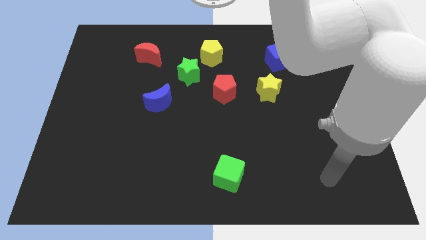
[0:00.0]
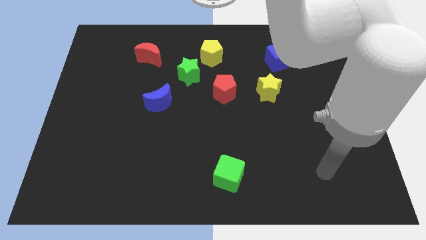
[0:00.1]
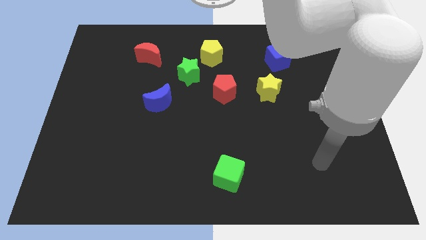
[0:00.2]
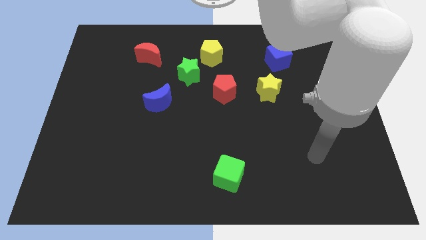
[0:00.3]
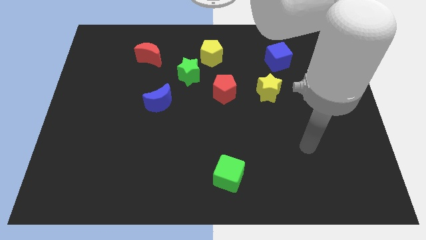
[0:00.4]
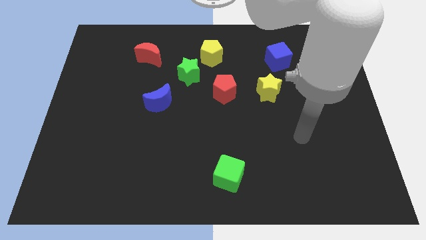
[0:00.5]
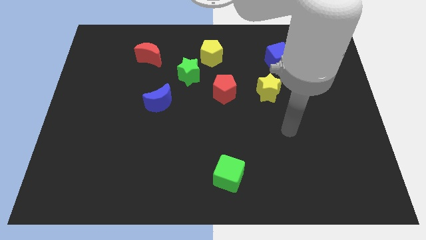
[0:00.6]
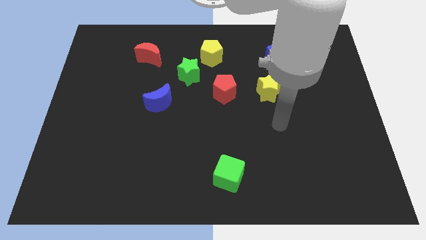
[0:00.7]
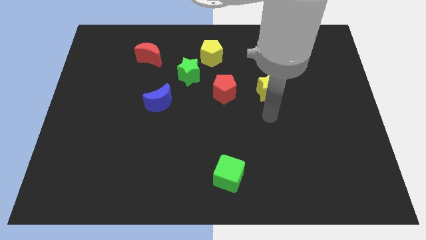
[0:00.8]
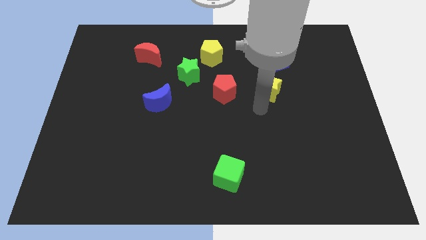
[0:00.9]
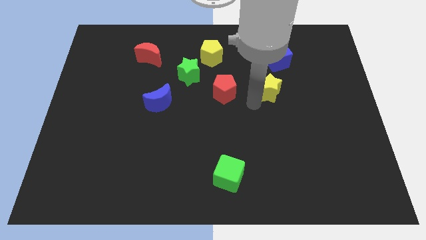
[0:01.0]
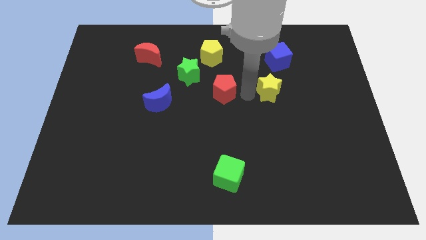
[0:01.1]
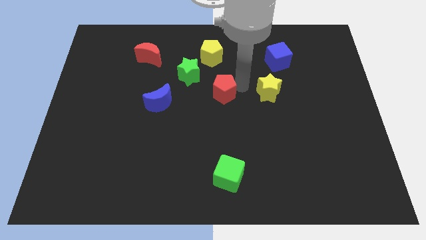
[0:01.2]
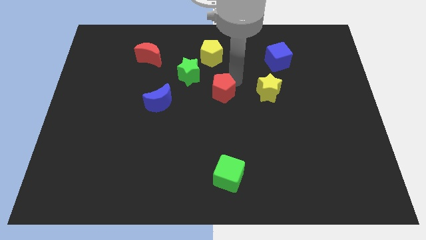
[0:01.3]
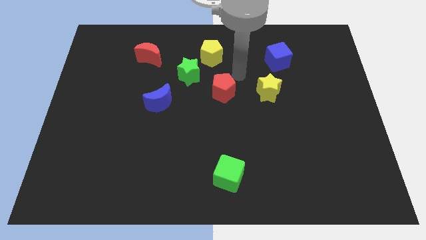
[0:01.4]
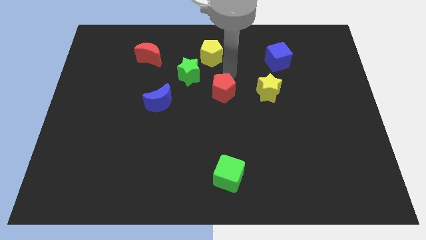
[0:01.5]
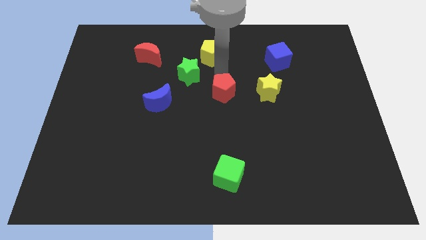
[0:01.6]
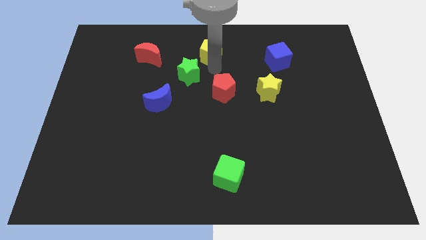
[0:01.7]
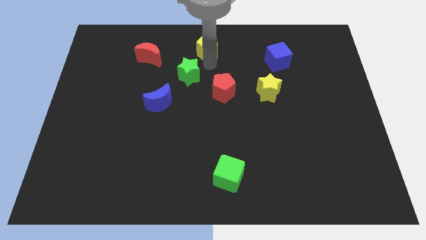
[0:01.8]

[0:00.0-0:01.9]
separate the green star from the yellow pentagon

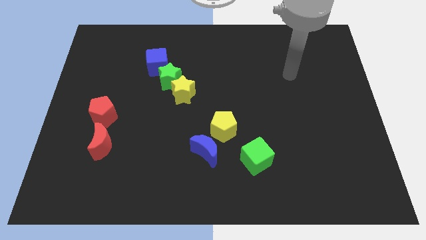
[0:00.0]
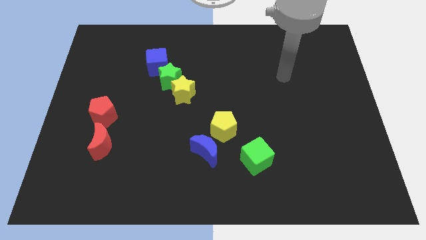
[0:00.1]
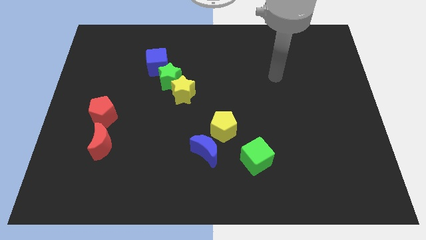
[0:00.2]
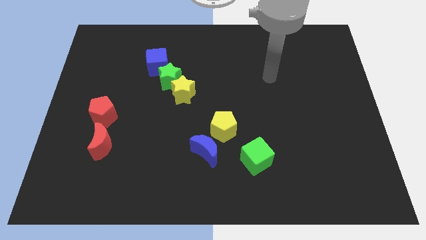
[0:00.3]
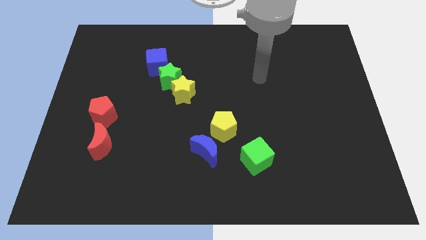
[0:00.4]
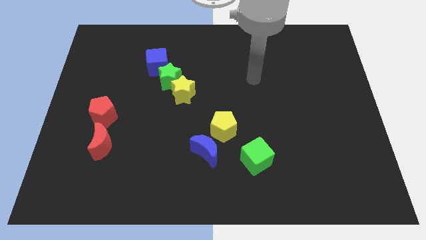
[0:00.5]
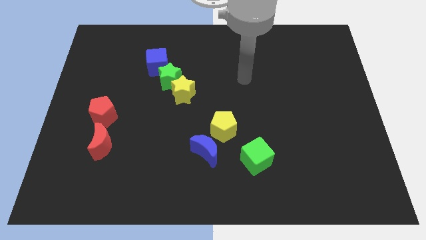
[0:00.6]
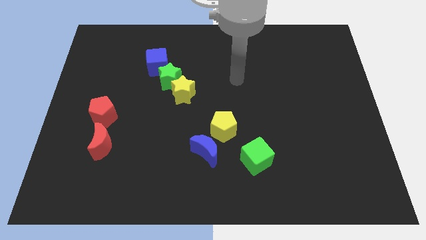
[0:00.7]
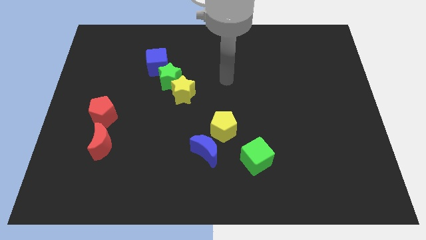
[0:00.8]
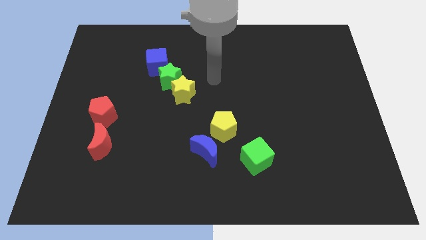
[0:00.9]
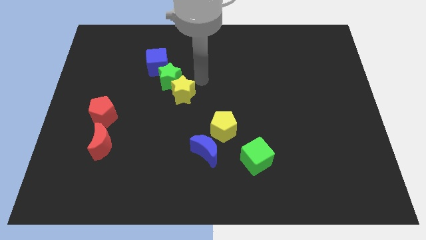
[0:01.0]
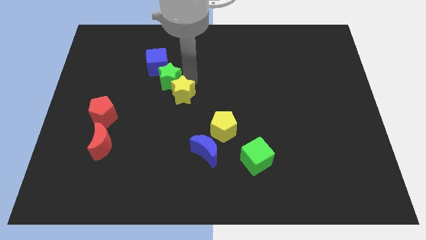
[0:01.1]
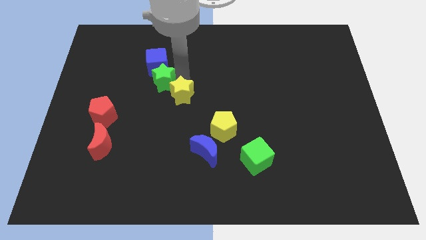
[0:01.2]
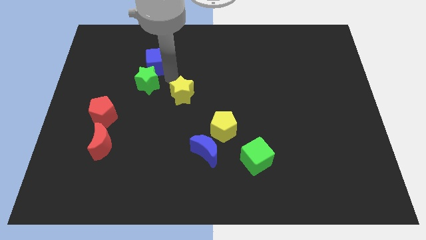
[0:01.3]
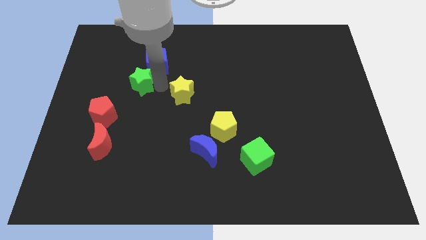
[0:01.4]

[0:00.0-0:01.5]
separate the yellow star from the green star

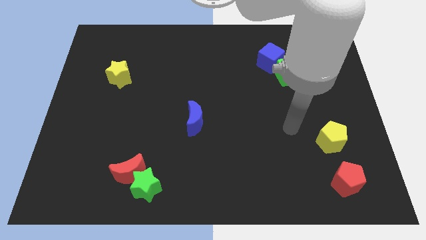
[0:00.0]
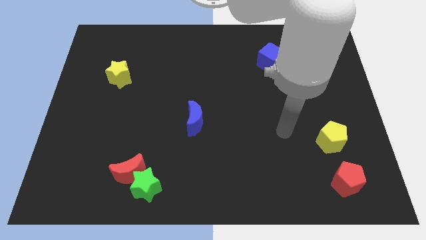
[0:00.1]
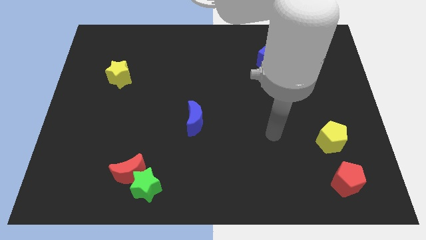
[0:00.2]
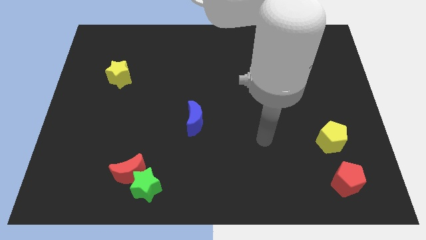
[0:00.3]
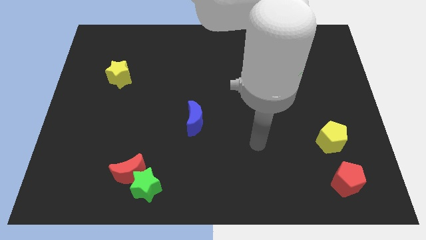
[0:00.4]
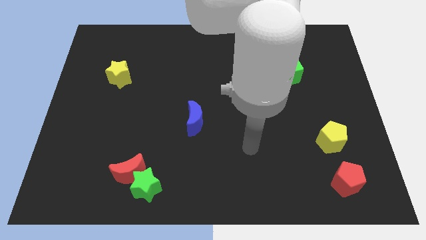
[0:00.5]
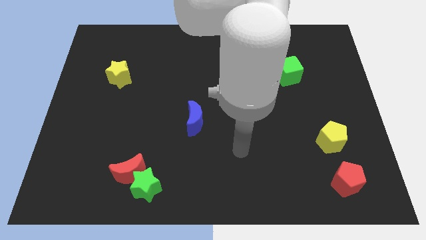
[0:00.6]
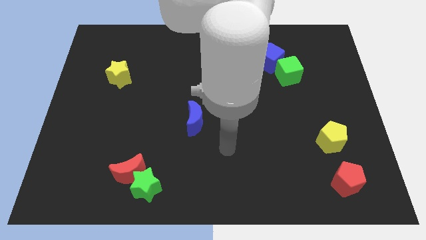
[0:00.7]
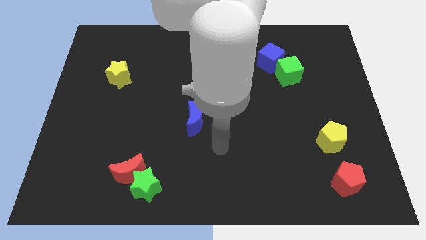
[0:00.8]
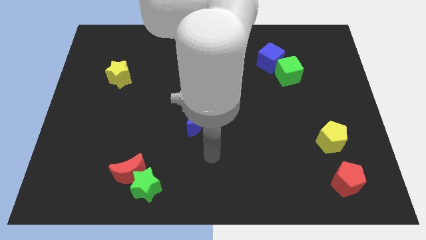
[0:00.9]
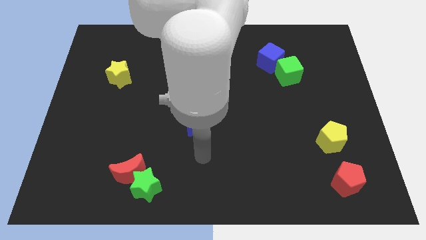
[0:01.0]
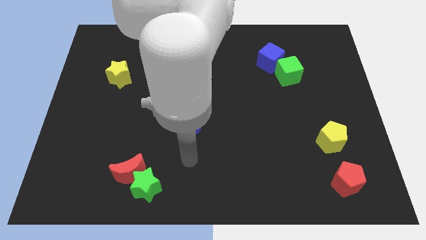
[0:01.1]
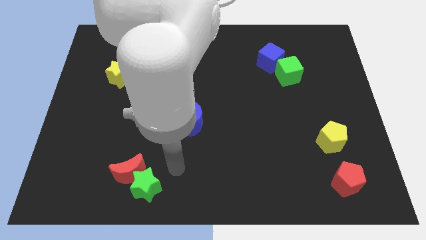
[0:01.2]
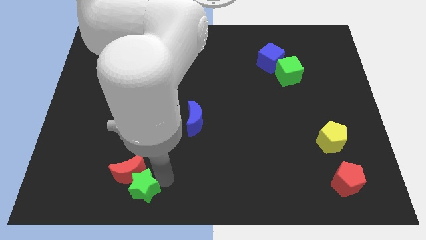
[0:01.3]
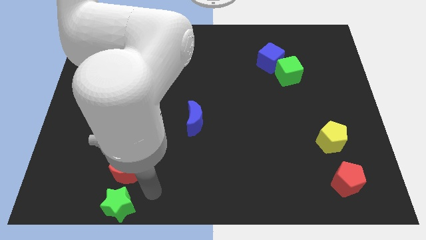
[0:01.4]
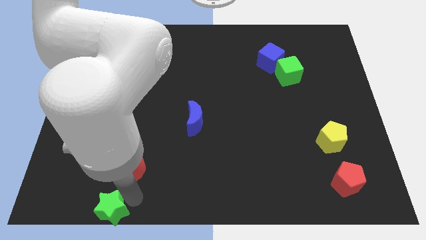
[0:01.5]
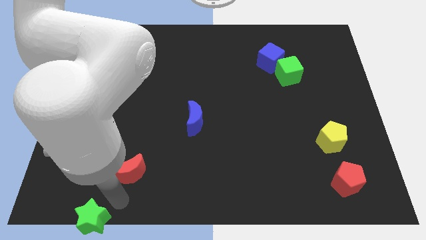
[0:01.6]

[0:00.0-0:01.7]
move the red moon away from the green star

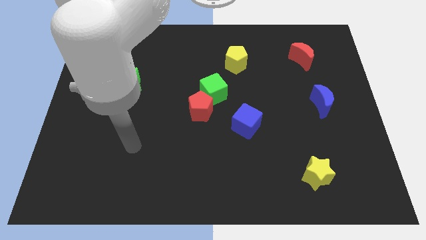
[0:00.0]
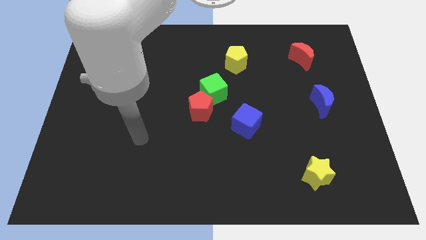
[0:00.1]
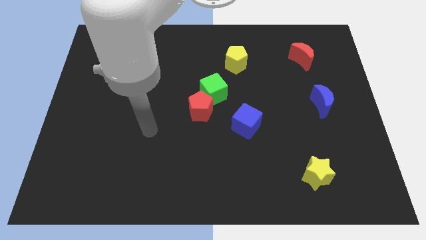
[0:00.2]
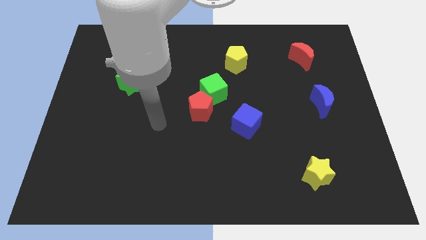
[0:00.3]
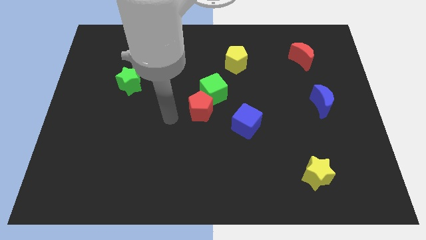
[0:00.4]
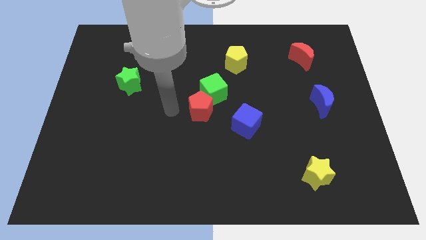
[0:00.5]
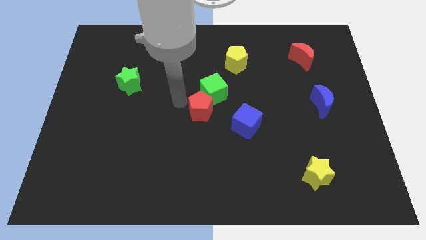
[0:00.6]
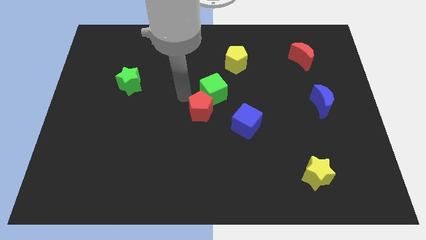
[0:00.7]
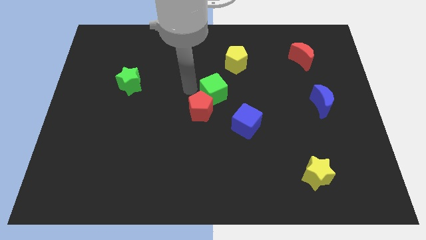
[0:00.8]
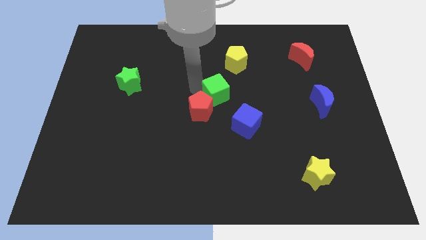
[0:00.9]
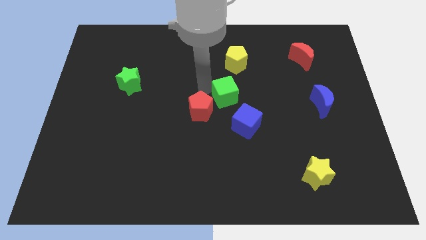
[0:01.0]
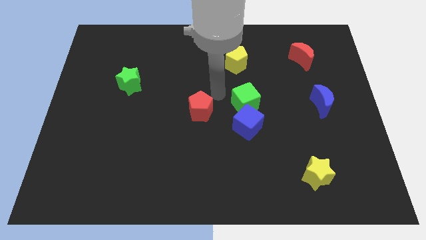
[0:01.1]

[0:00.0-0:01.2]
separate the red pentagon from the green cube

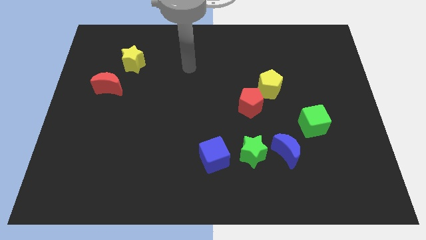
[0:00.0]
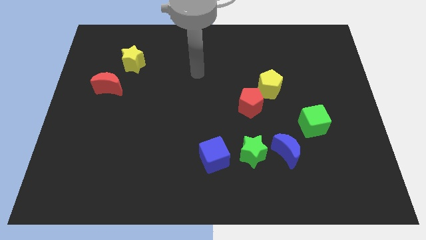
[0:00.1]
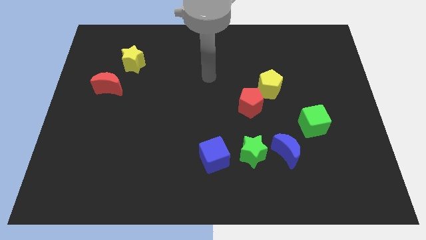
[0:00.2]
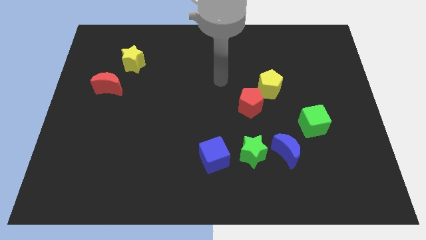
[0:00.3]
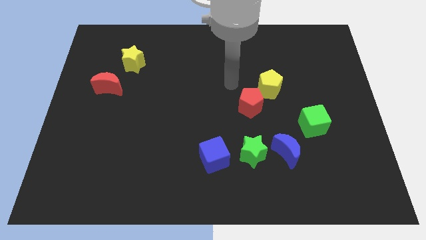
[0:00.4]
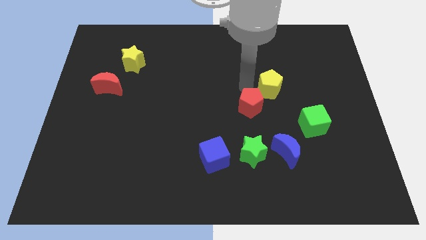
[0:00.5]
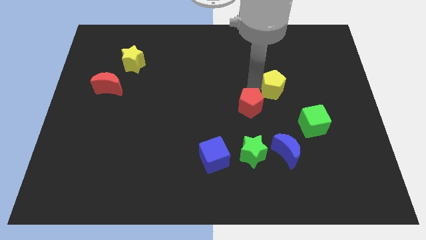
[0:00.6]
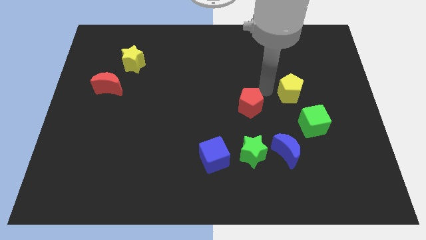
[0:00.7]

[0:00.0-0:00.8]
pull the red pentagon apart from the yellow pentagon

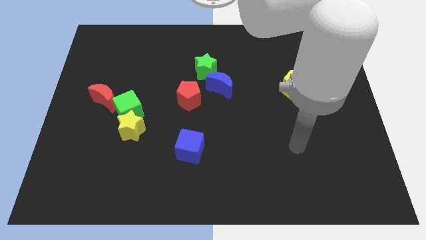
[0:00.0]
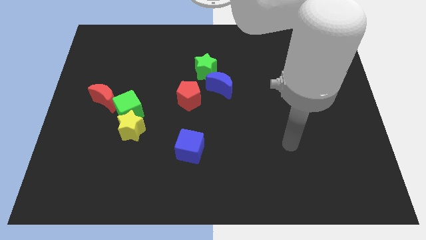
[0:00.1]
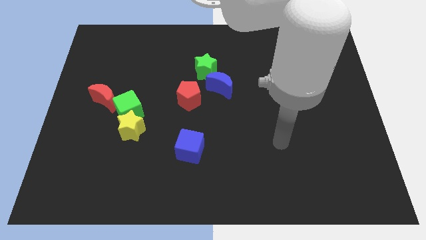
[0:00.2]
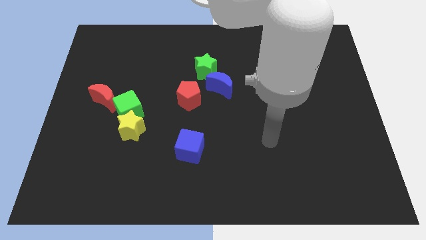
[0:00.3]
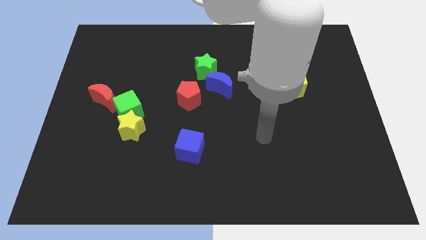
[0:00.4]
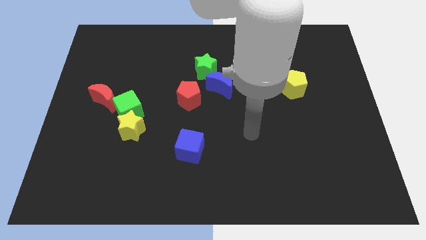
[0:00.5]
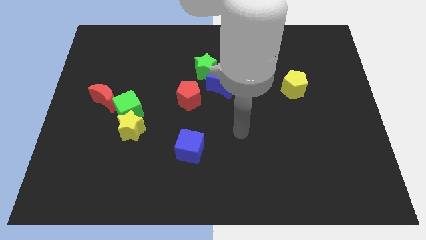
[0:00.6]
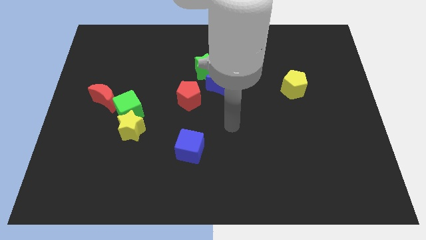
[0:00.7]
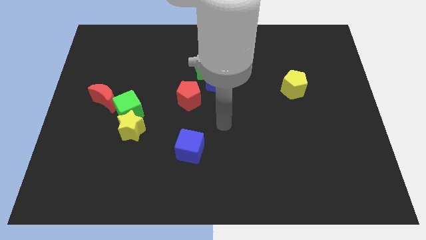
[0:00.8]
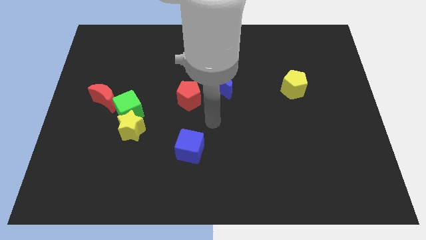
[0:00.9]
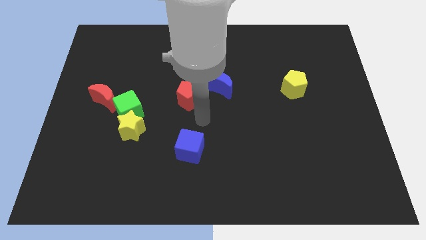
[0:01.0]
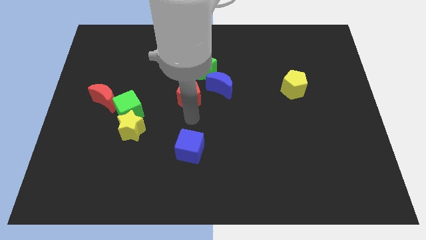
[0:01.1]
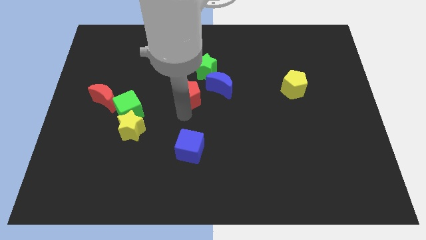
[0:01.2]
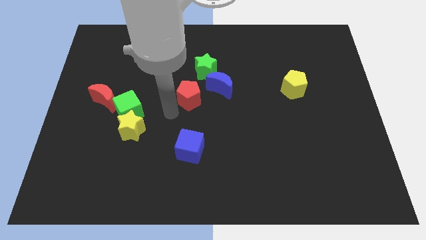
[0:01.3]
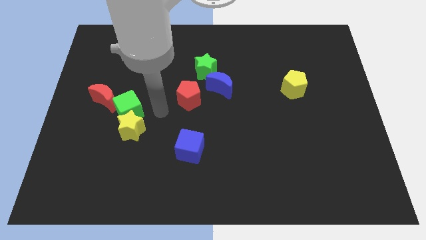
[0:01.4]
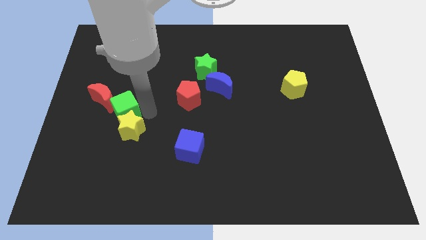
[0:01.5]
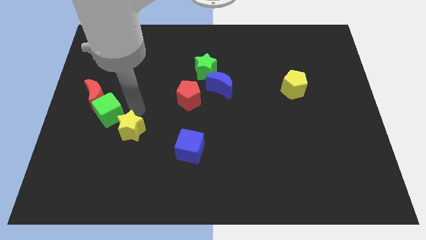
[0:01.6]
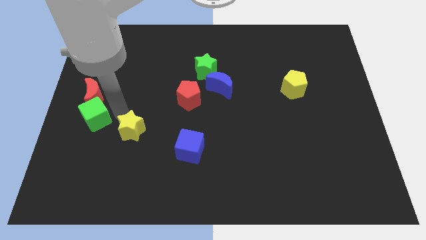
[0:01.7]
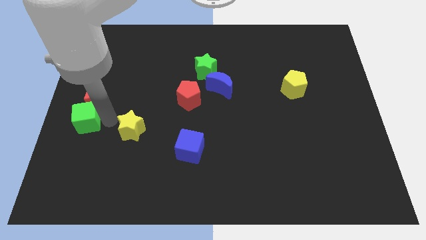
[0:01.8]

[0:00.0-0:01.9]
move the yellow star away from the green cube

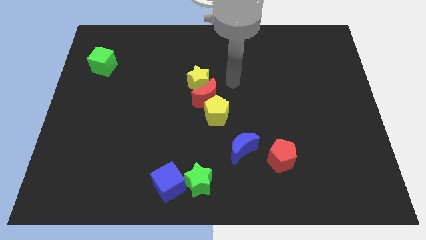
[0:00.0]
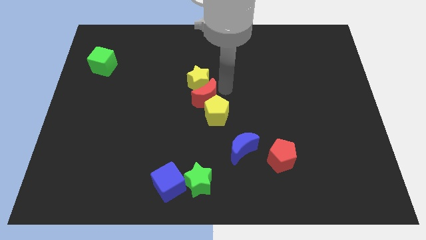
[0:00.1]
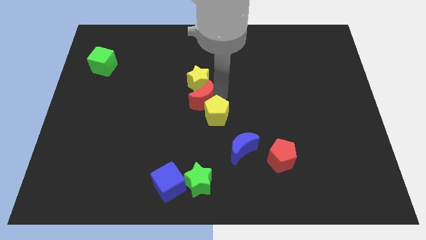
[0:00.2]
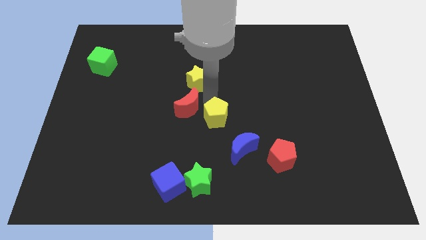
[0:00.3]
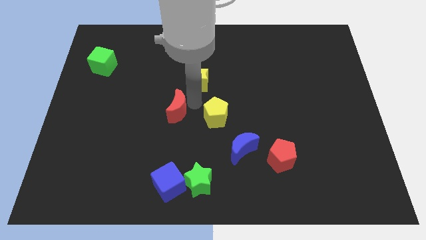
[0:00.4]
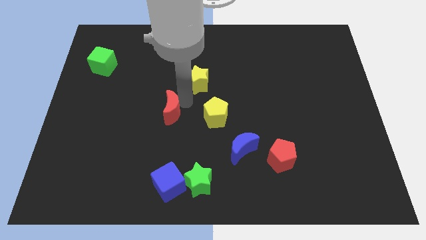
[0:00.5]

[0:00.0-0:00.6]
move the yellow star away from the red moon
